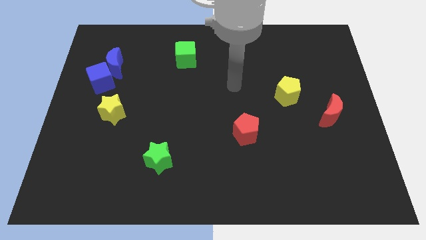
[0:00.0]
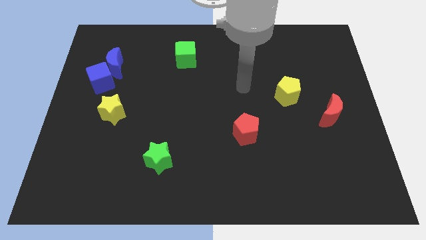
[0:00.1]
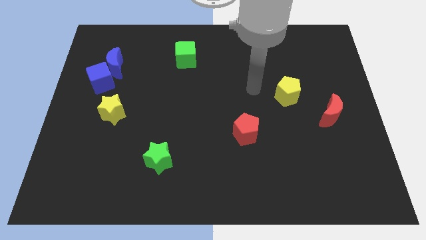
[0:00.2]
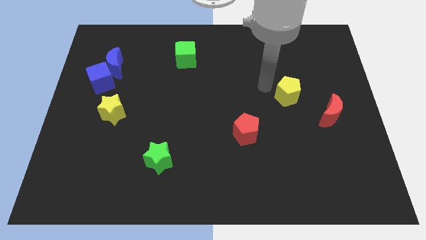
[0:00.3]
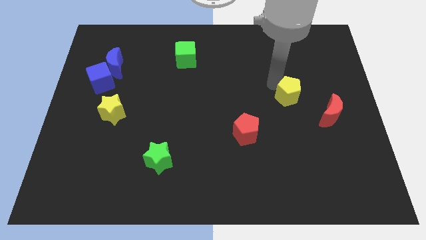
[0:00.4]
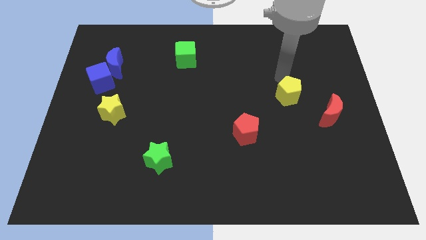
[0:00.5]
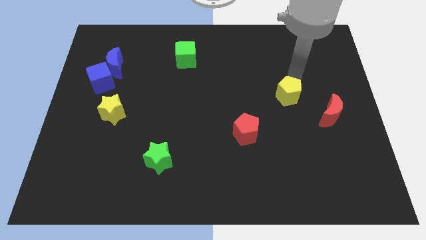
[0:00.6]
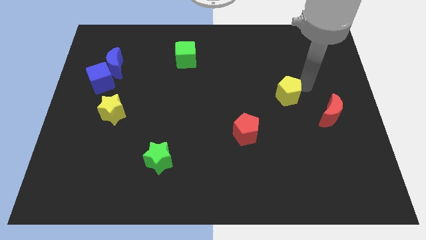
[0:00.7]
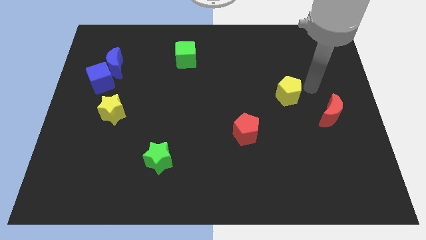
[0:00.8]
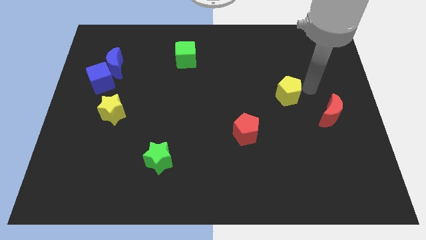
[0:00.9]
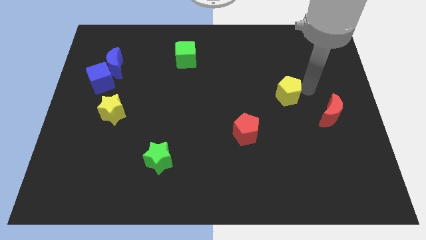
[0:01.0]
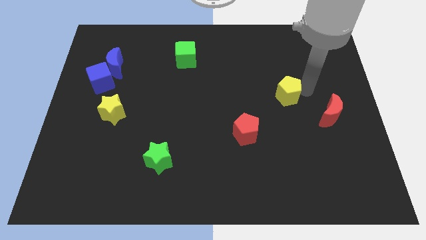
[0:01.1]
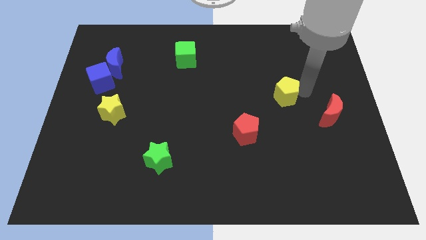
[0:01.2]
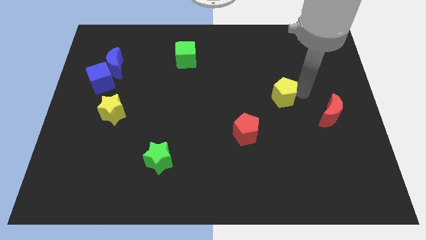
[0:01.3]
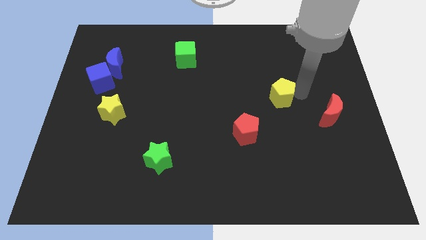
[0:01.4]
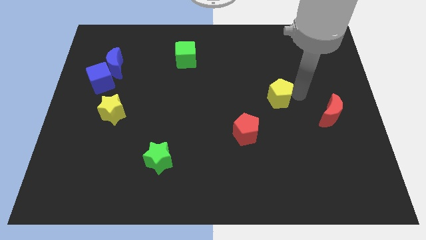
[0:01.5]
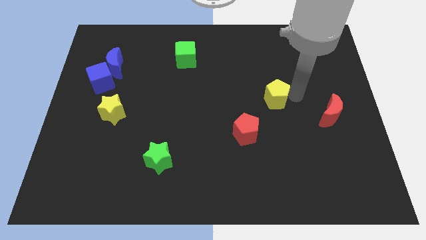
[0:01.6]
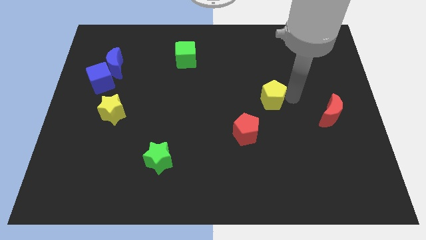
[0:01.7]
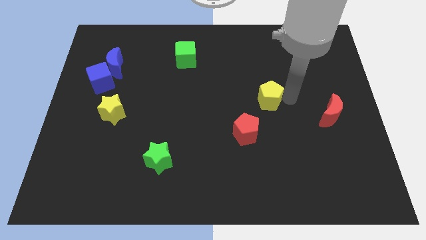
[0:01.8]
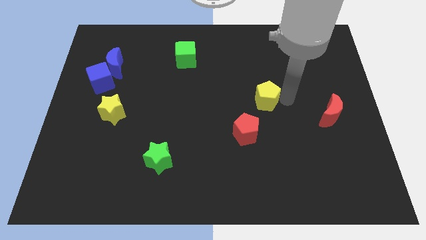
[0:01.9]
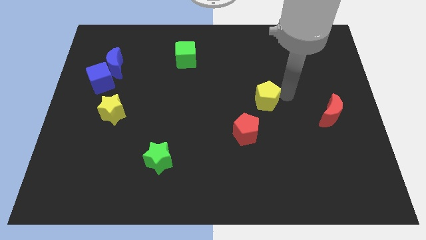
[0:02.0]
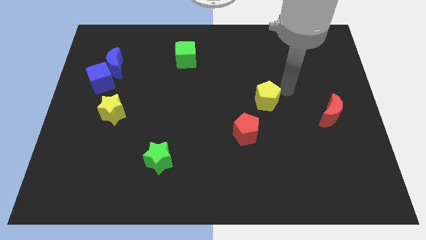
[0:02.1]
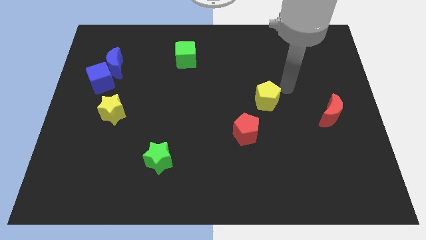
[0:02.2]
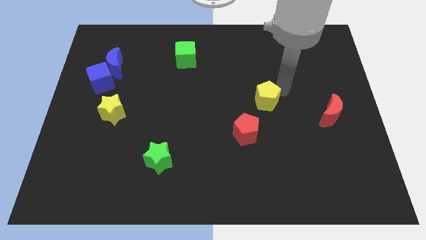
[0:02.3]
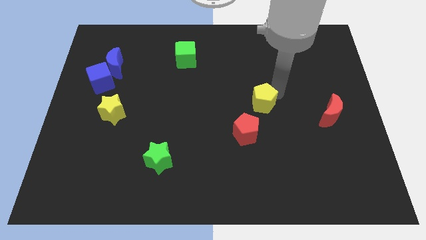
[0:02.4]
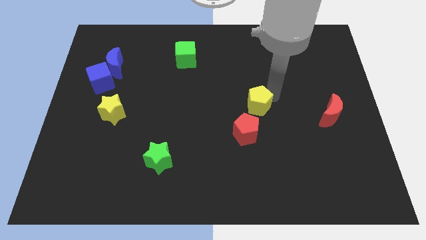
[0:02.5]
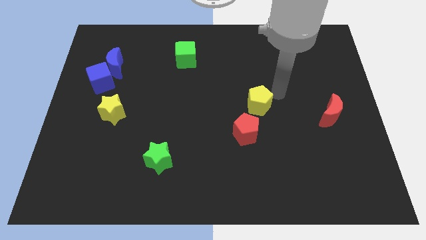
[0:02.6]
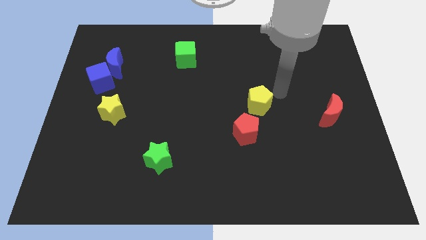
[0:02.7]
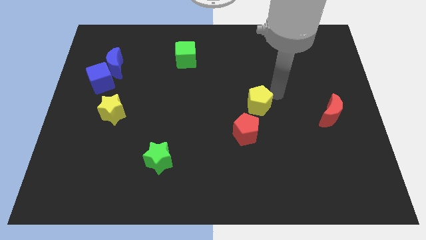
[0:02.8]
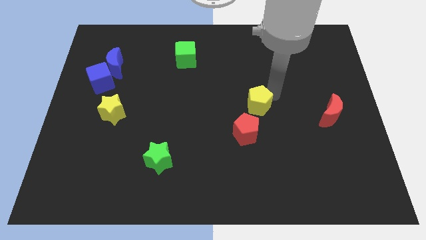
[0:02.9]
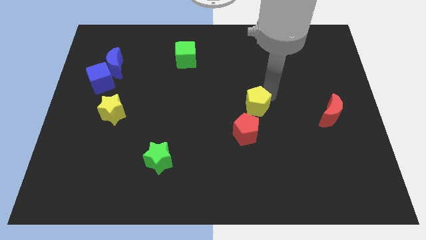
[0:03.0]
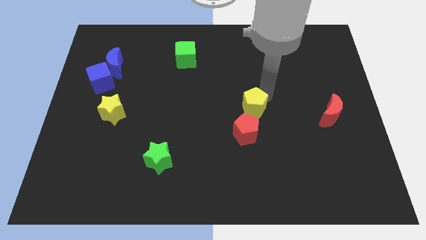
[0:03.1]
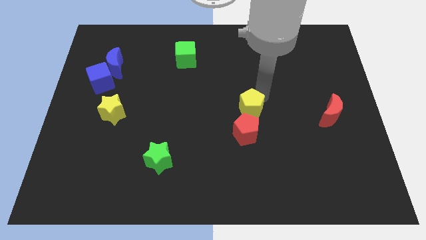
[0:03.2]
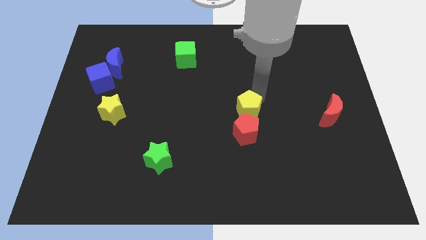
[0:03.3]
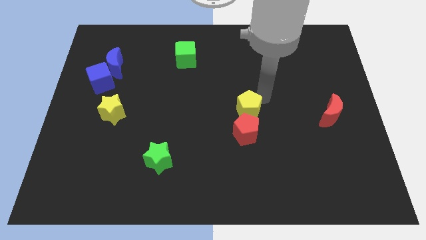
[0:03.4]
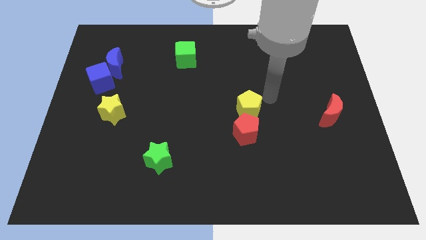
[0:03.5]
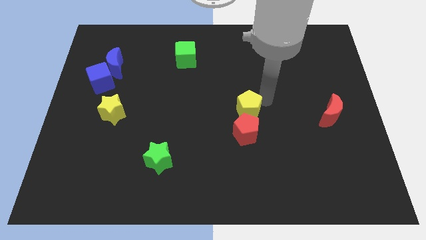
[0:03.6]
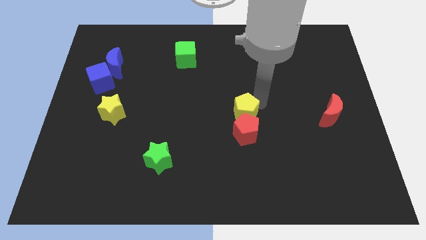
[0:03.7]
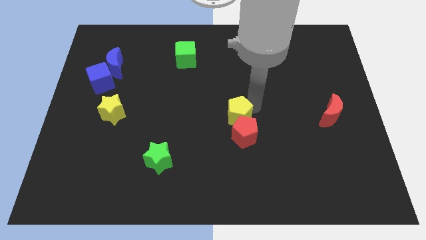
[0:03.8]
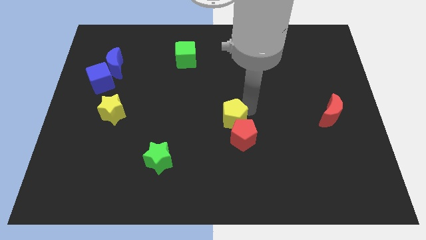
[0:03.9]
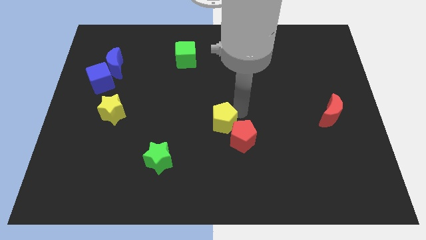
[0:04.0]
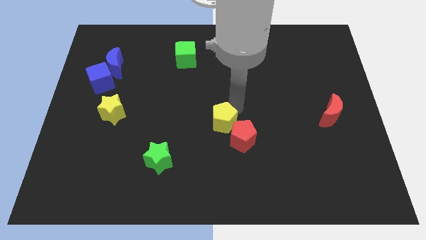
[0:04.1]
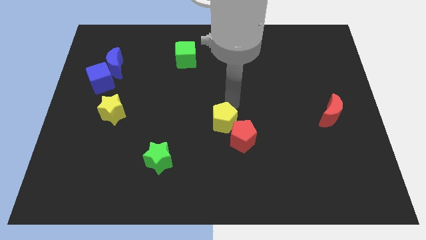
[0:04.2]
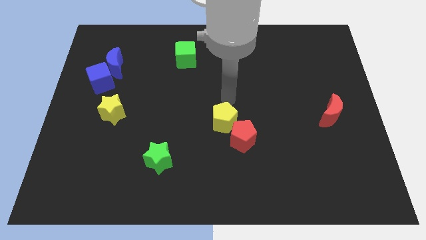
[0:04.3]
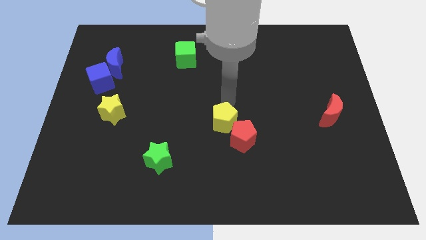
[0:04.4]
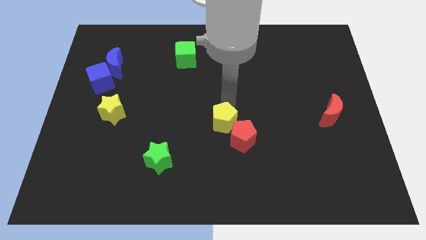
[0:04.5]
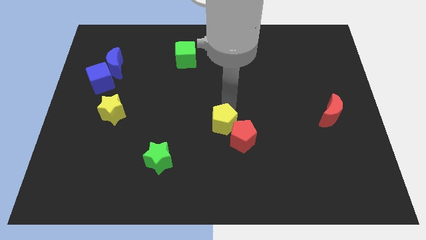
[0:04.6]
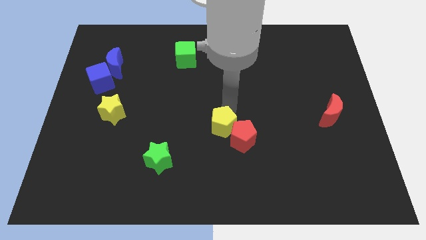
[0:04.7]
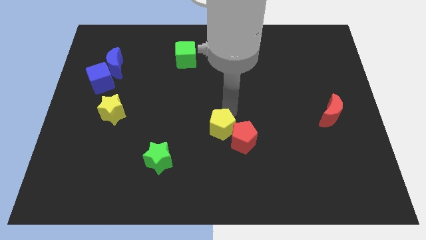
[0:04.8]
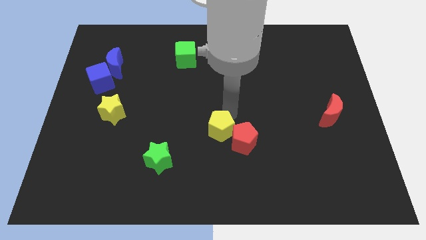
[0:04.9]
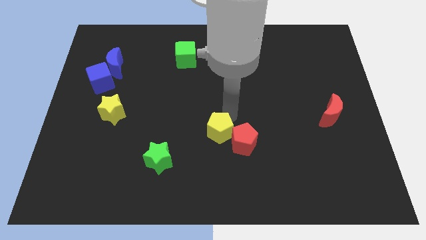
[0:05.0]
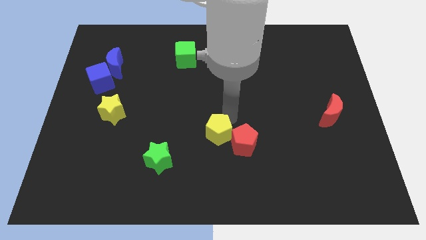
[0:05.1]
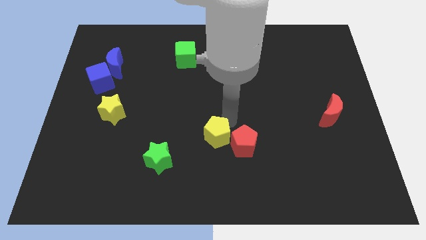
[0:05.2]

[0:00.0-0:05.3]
move the yellow pentagon diagonally downwards and left

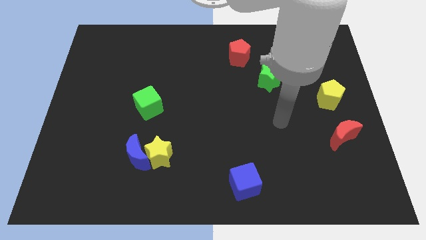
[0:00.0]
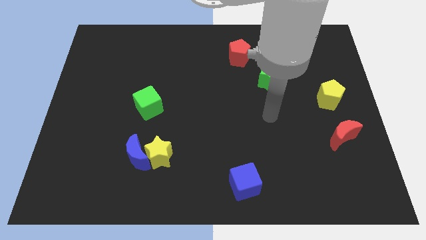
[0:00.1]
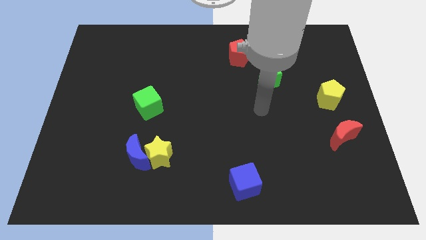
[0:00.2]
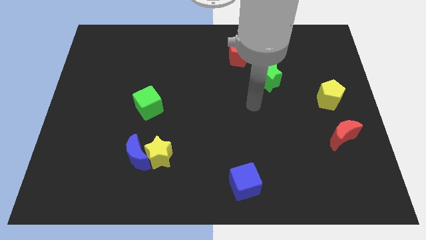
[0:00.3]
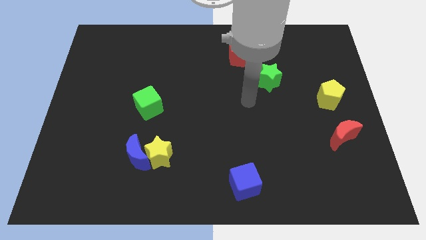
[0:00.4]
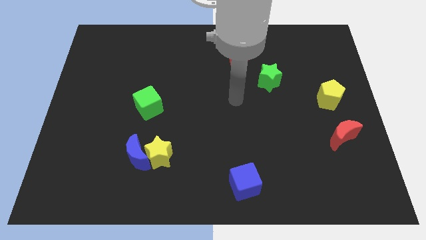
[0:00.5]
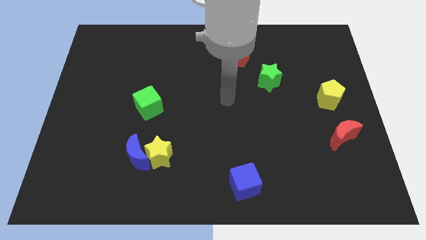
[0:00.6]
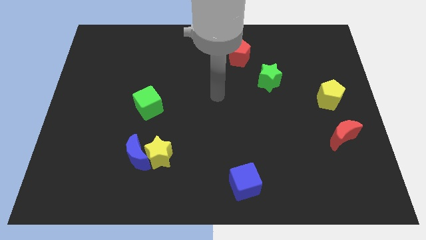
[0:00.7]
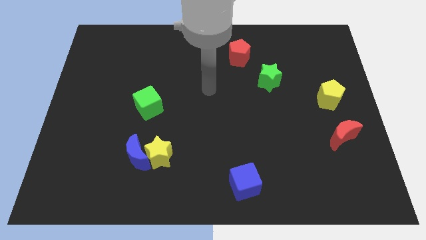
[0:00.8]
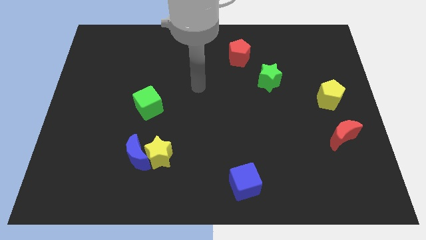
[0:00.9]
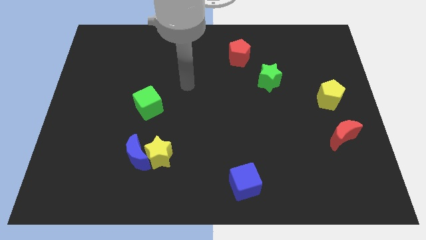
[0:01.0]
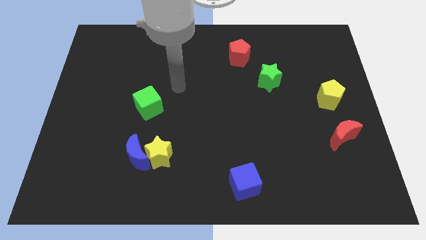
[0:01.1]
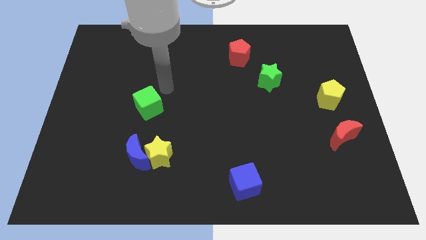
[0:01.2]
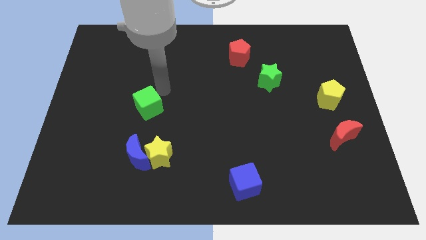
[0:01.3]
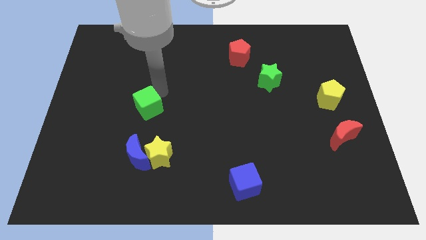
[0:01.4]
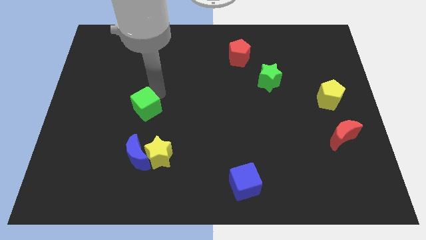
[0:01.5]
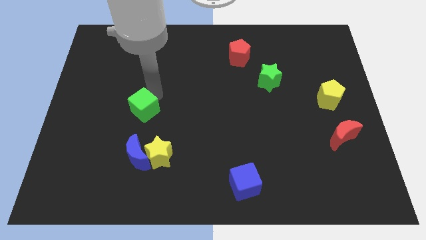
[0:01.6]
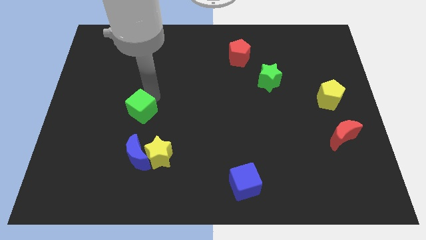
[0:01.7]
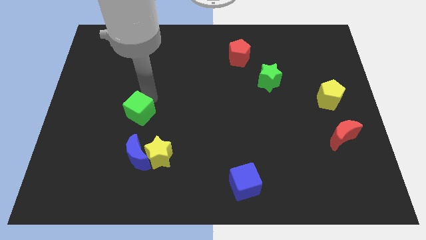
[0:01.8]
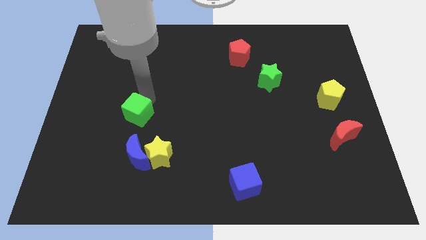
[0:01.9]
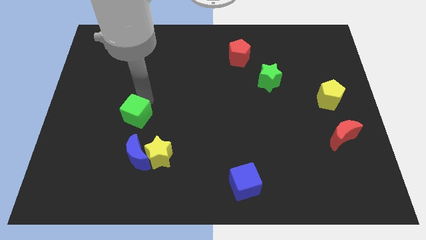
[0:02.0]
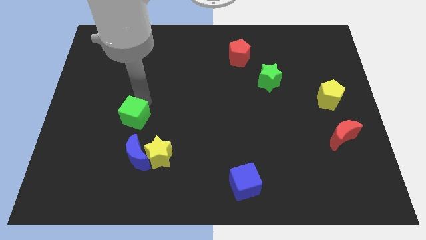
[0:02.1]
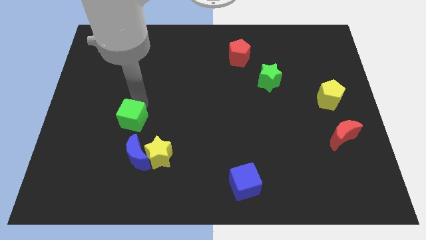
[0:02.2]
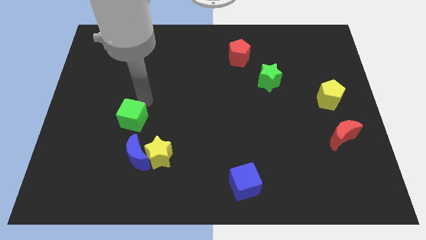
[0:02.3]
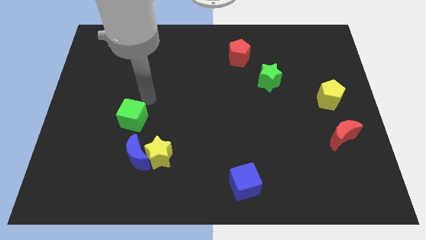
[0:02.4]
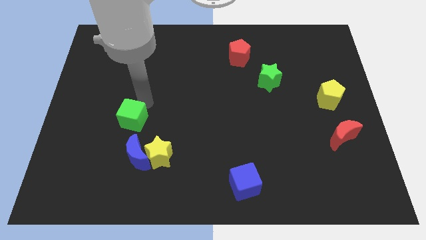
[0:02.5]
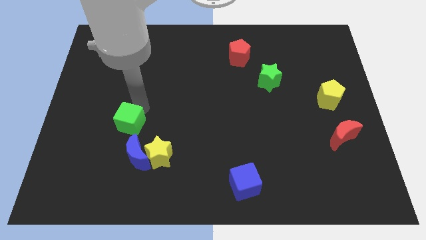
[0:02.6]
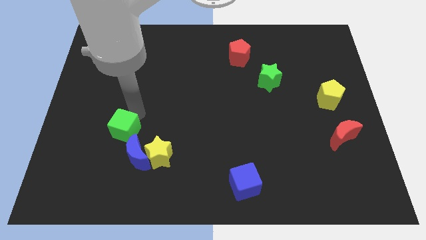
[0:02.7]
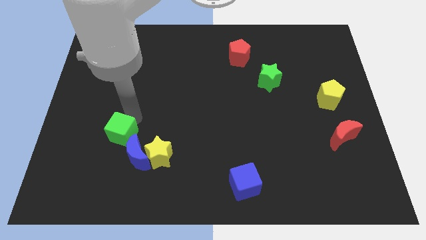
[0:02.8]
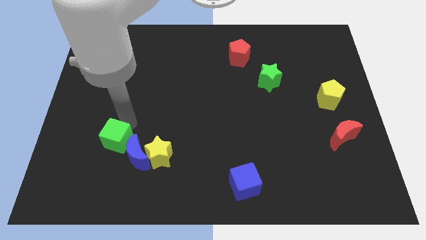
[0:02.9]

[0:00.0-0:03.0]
move the green cube slightly downwards
